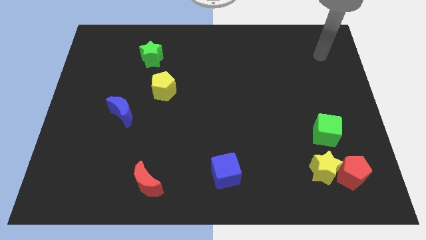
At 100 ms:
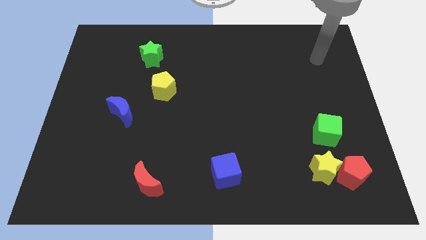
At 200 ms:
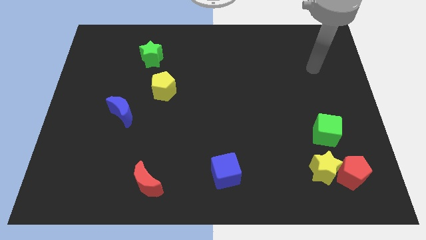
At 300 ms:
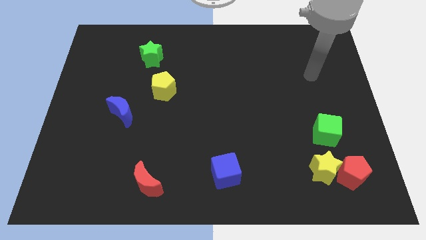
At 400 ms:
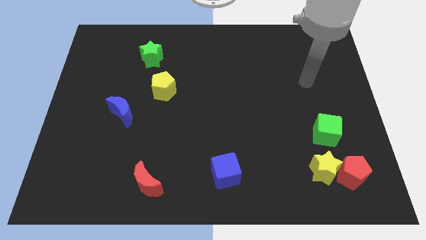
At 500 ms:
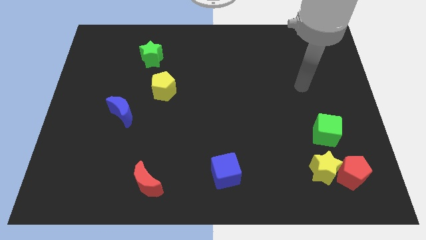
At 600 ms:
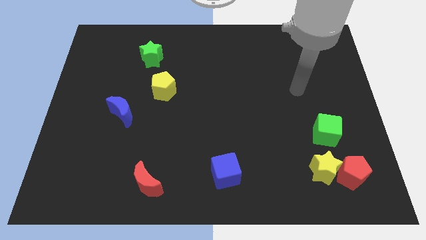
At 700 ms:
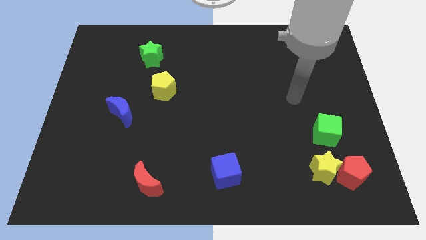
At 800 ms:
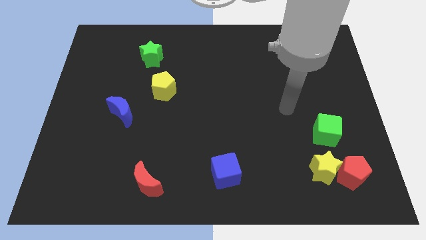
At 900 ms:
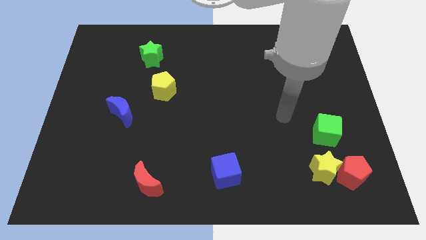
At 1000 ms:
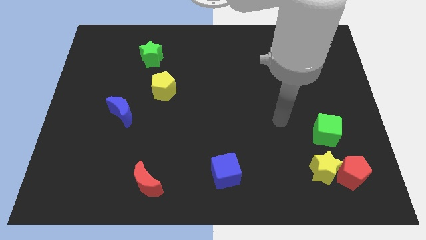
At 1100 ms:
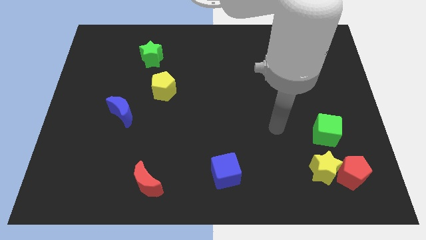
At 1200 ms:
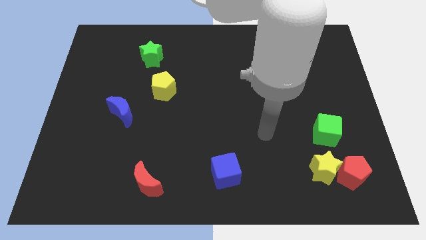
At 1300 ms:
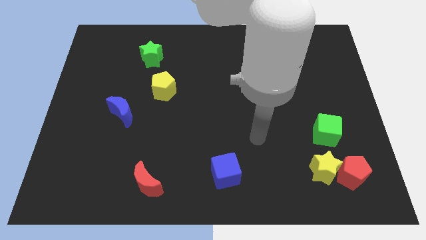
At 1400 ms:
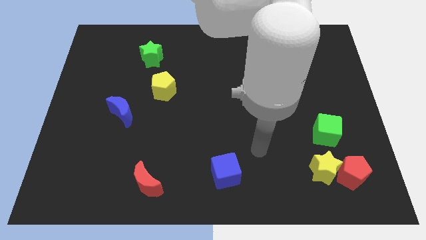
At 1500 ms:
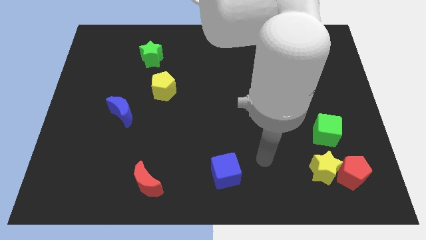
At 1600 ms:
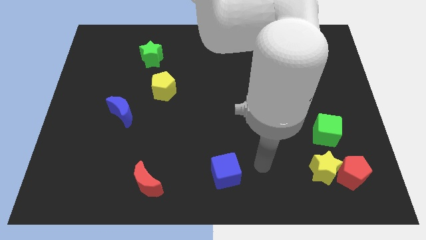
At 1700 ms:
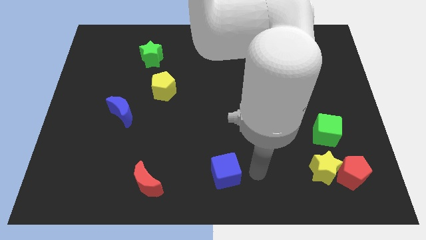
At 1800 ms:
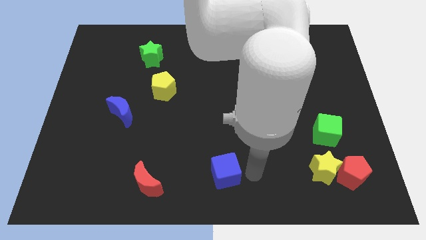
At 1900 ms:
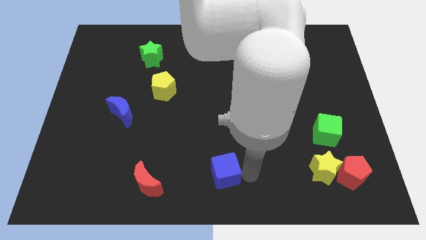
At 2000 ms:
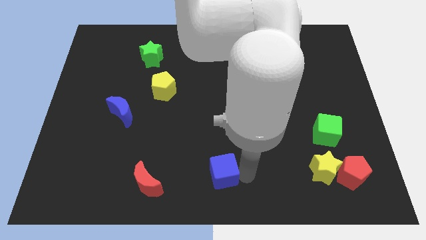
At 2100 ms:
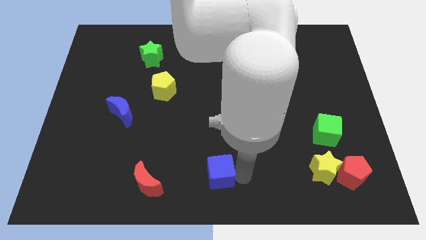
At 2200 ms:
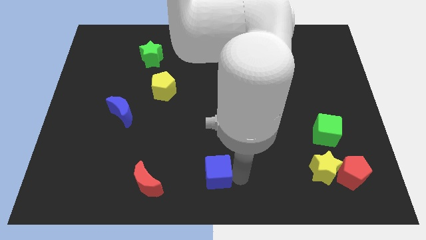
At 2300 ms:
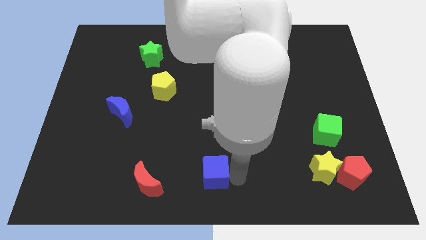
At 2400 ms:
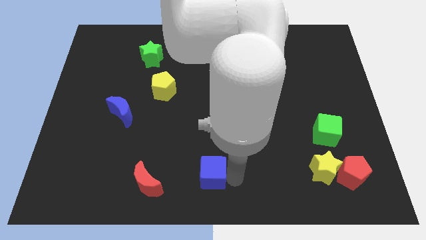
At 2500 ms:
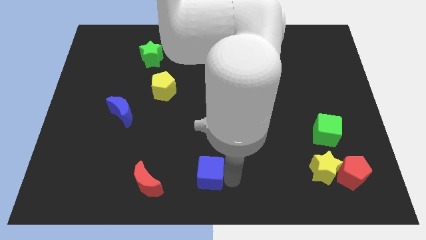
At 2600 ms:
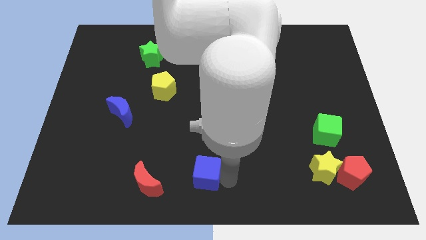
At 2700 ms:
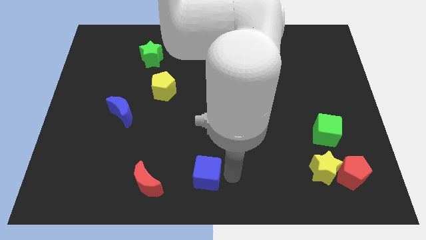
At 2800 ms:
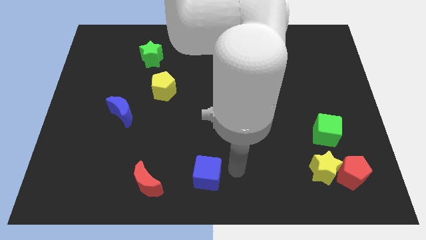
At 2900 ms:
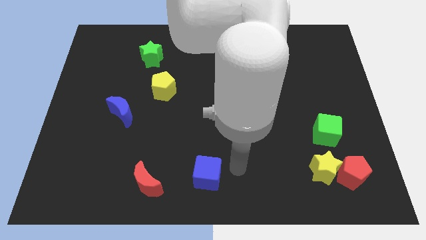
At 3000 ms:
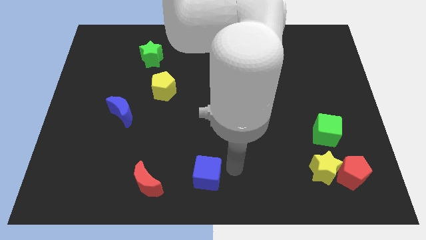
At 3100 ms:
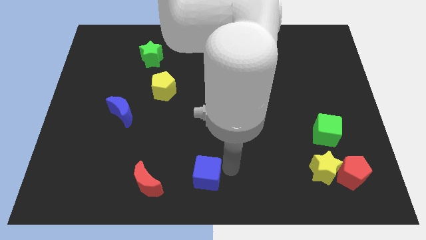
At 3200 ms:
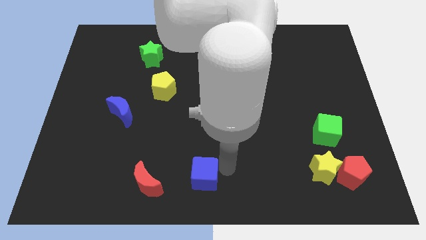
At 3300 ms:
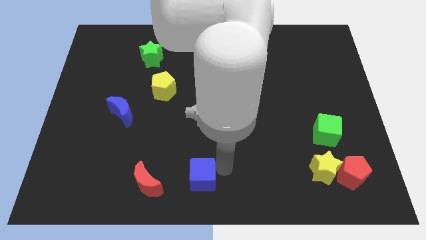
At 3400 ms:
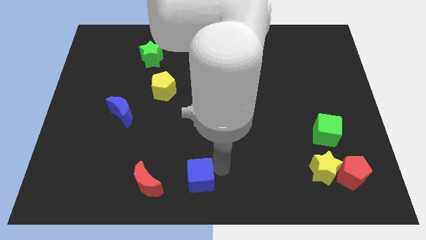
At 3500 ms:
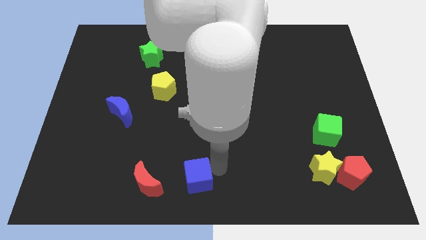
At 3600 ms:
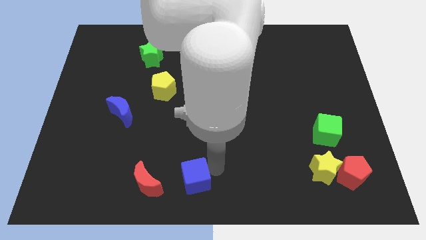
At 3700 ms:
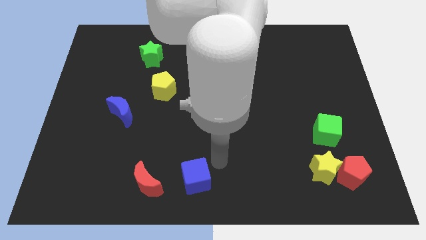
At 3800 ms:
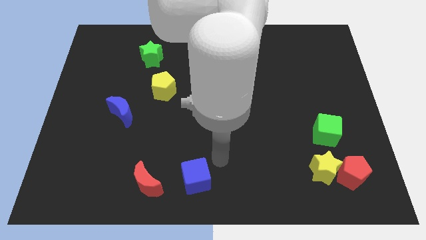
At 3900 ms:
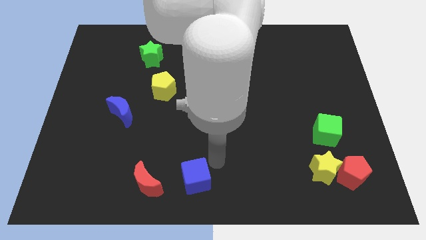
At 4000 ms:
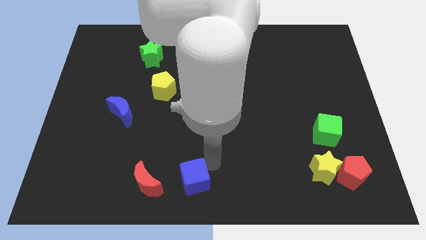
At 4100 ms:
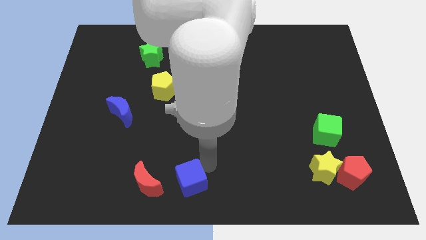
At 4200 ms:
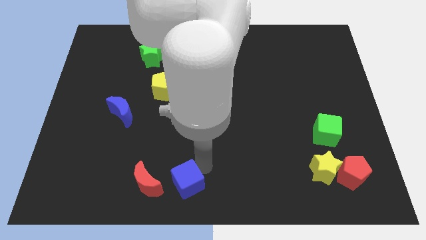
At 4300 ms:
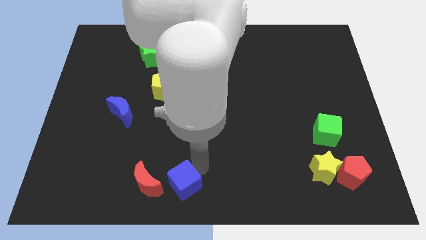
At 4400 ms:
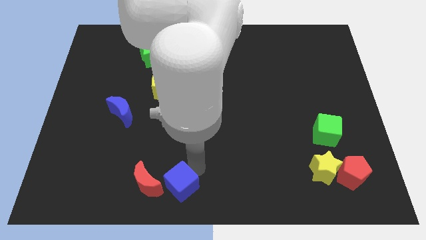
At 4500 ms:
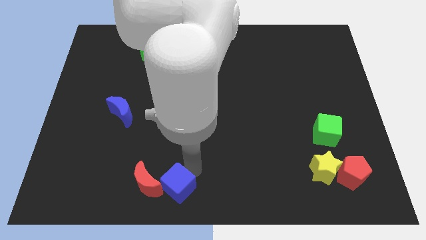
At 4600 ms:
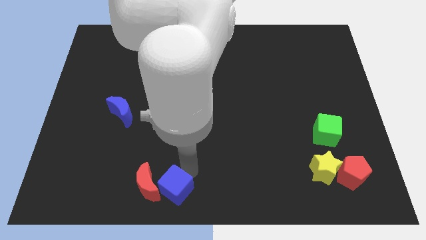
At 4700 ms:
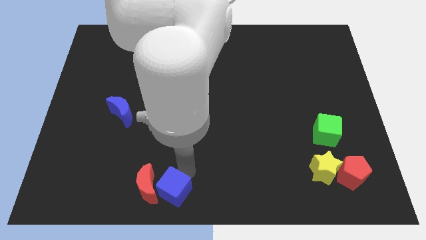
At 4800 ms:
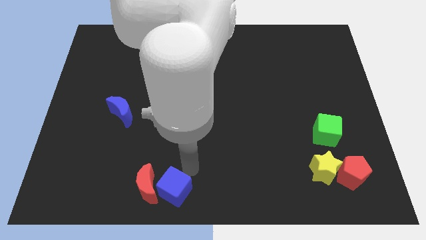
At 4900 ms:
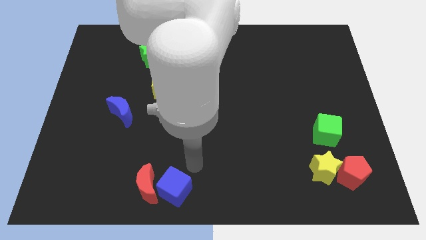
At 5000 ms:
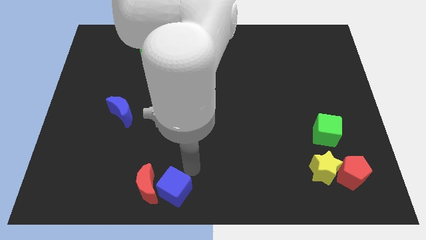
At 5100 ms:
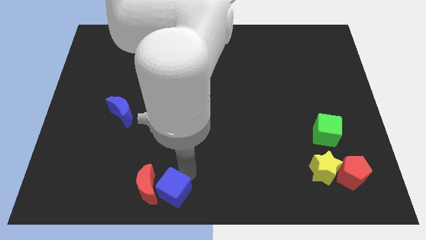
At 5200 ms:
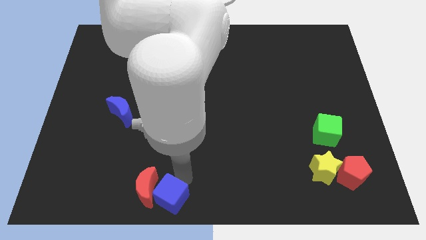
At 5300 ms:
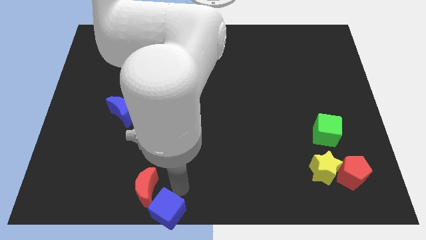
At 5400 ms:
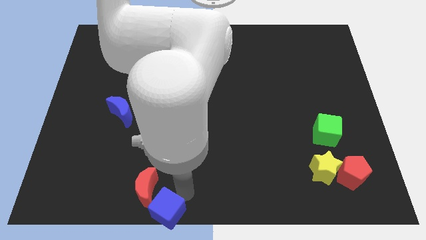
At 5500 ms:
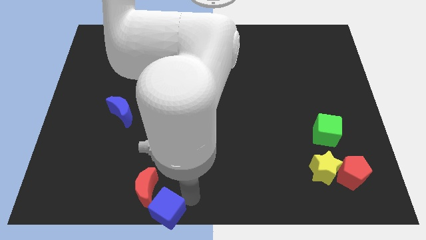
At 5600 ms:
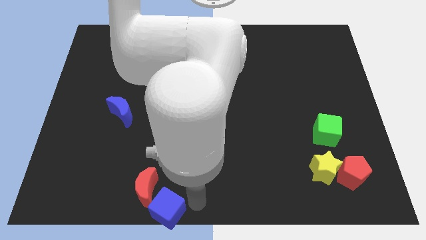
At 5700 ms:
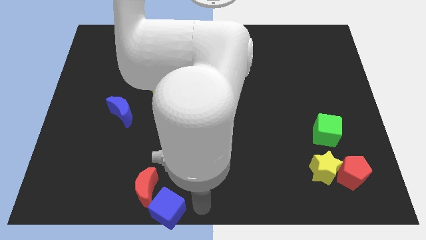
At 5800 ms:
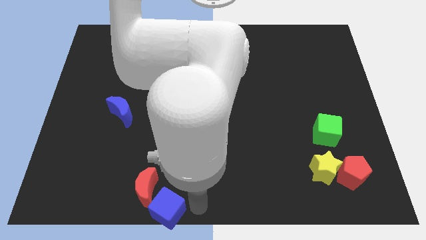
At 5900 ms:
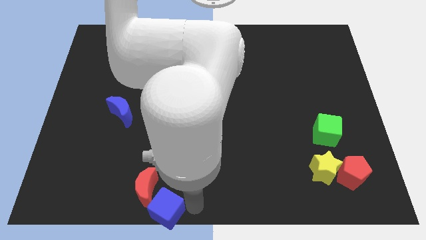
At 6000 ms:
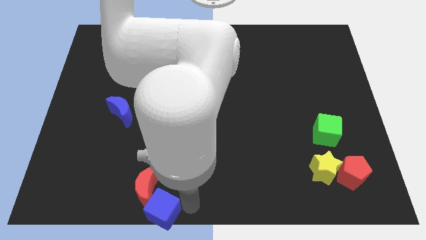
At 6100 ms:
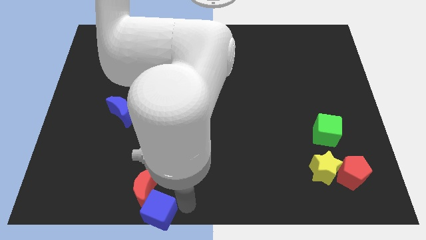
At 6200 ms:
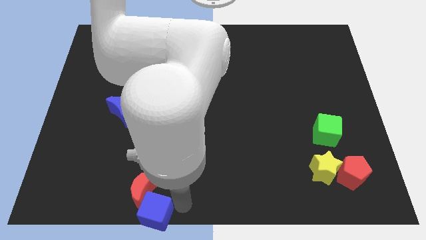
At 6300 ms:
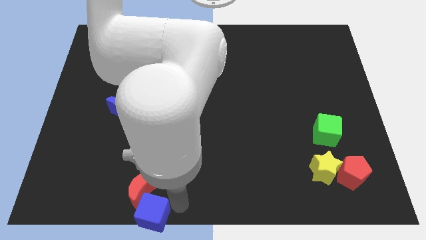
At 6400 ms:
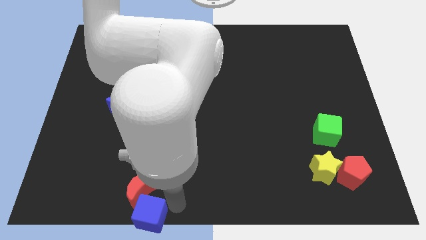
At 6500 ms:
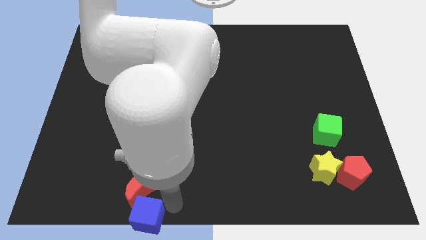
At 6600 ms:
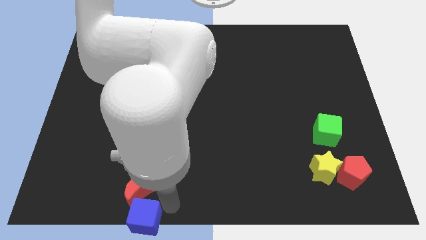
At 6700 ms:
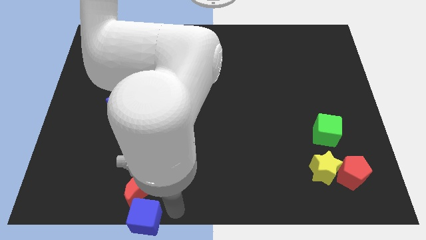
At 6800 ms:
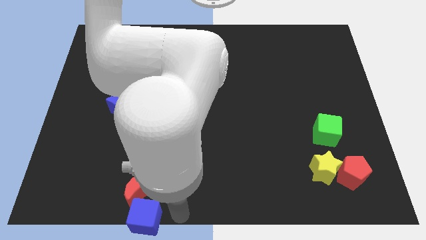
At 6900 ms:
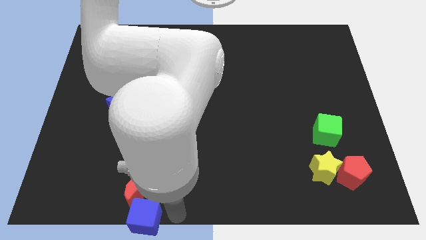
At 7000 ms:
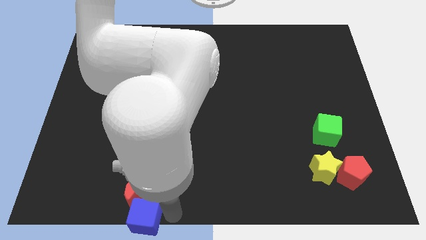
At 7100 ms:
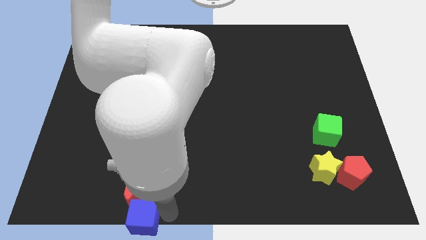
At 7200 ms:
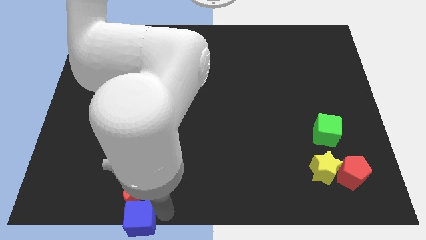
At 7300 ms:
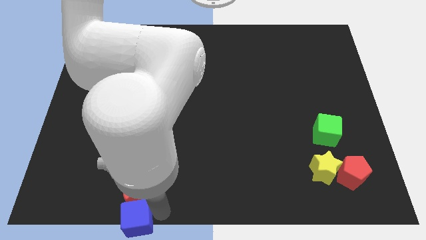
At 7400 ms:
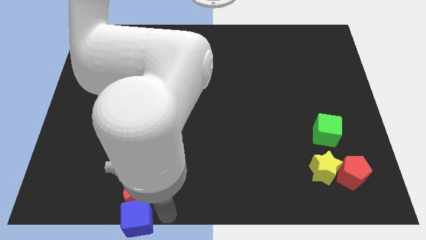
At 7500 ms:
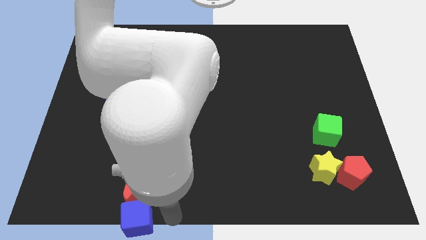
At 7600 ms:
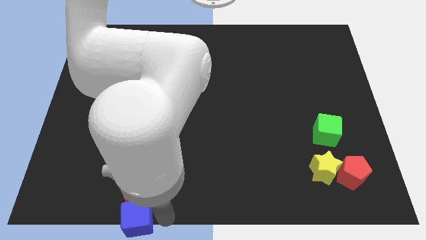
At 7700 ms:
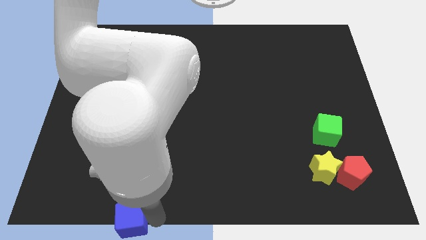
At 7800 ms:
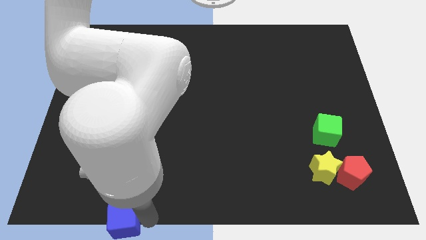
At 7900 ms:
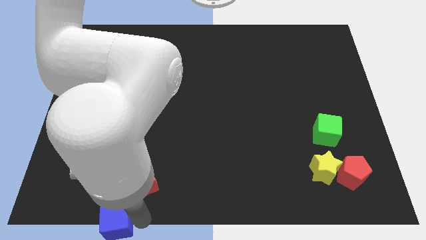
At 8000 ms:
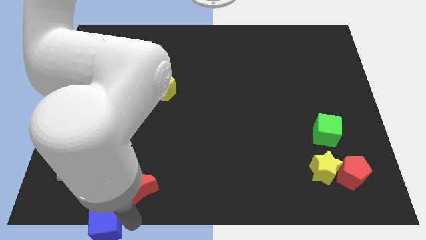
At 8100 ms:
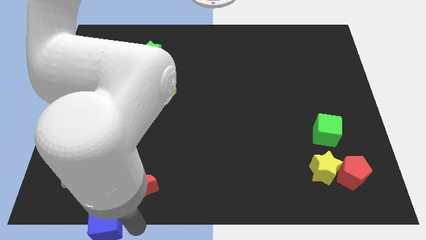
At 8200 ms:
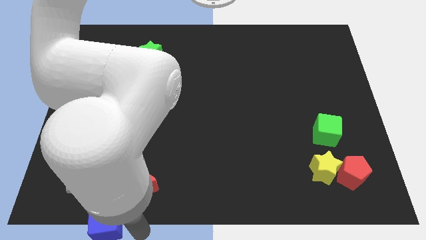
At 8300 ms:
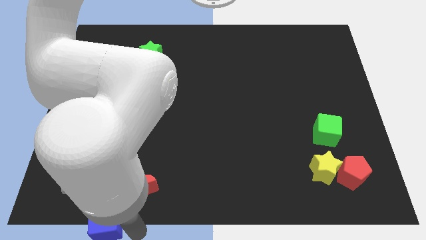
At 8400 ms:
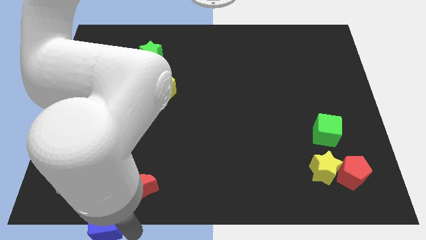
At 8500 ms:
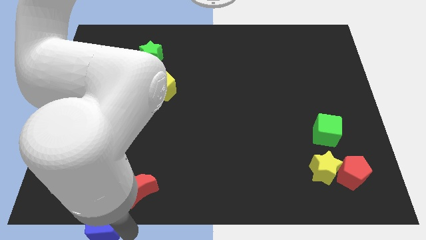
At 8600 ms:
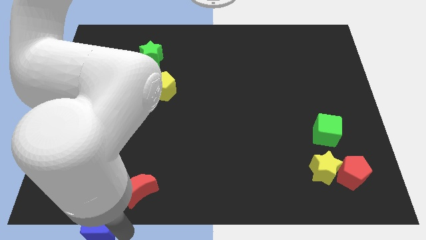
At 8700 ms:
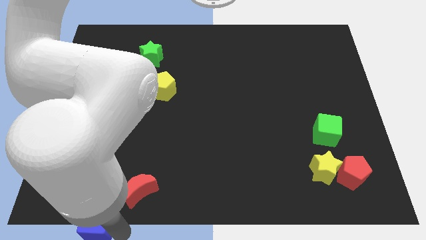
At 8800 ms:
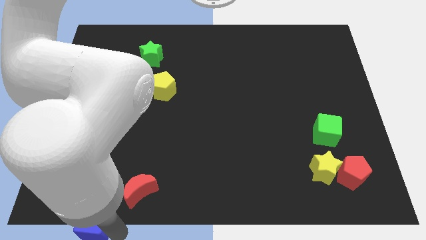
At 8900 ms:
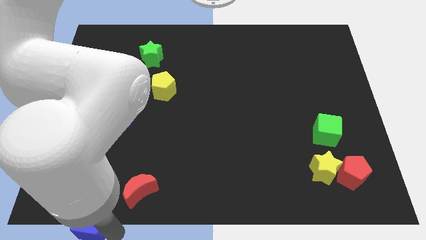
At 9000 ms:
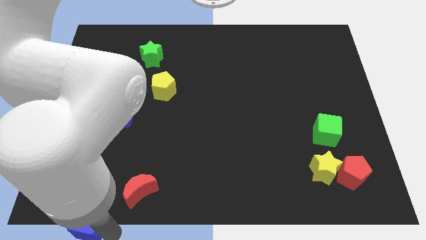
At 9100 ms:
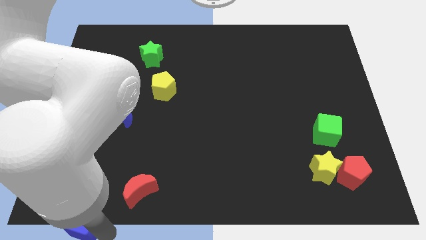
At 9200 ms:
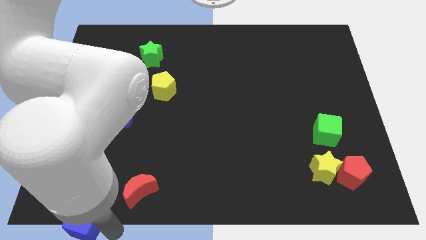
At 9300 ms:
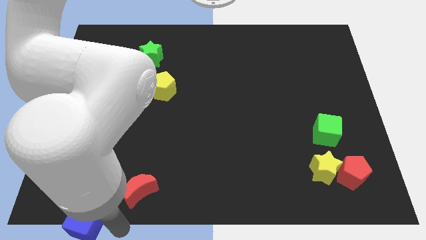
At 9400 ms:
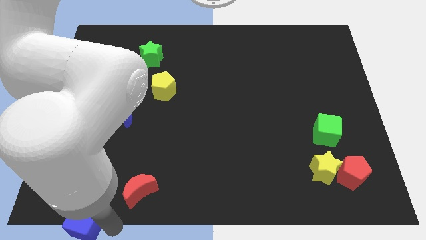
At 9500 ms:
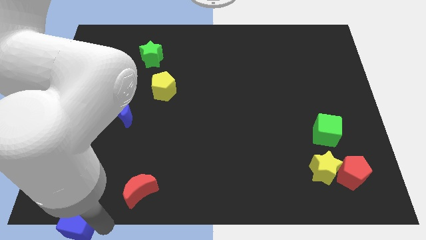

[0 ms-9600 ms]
move the blue cube to the bottom left corner
